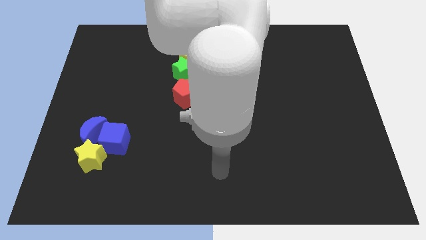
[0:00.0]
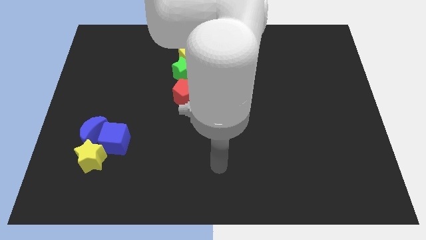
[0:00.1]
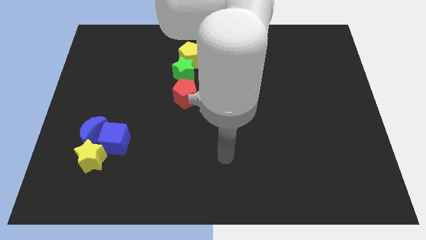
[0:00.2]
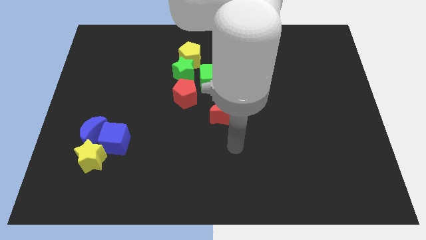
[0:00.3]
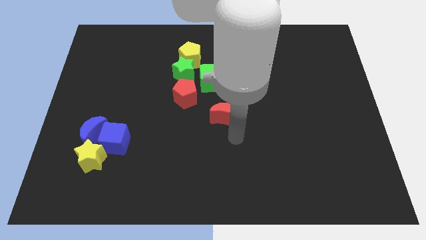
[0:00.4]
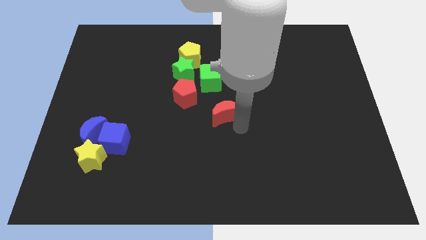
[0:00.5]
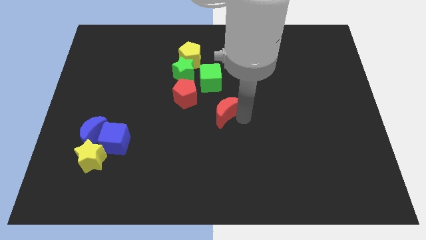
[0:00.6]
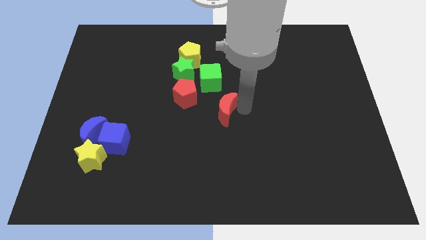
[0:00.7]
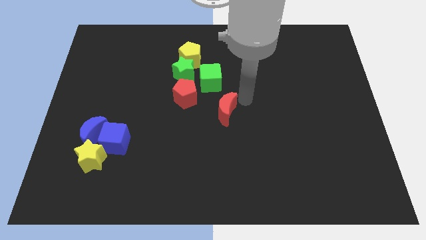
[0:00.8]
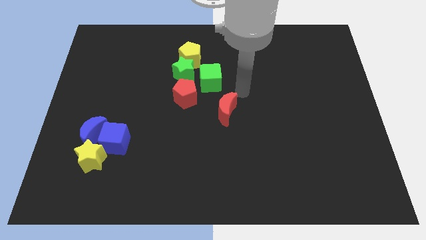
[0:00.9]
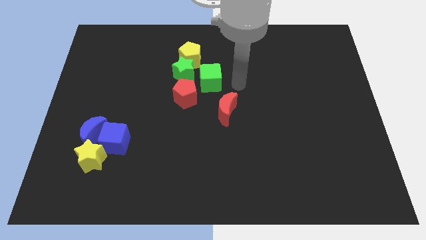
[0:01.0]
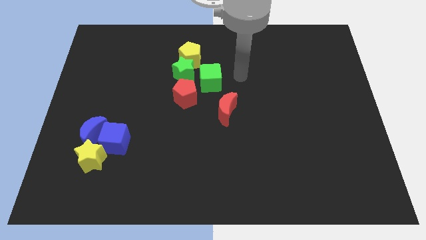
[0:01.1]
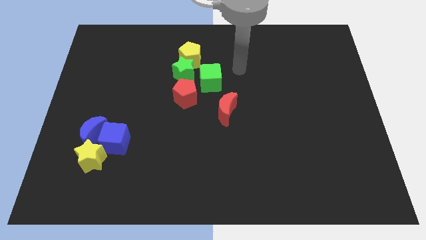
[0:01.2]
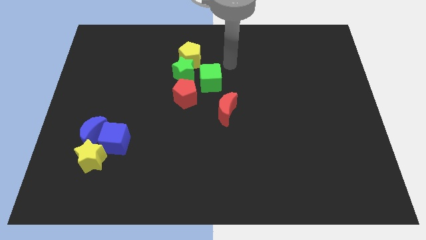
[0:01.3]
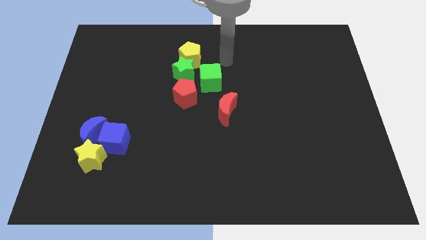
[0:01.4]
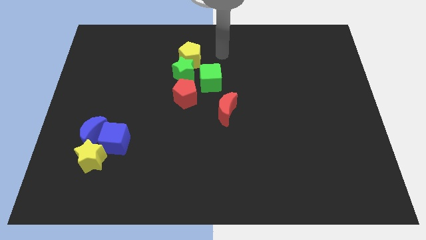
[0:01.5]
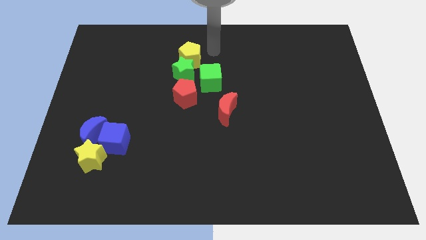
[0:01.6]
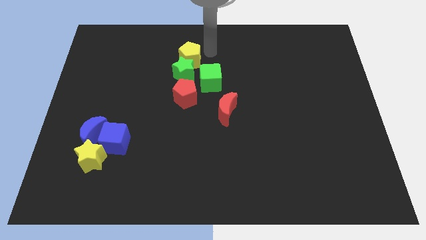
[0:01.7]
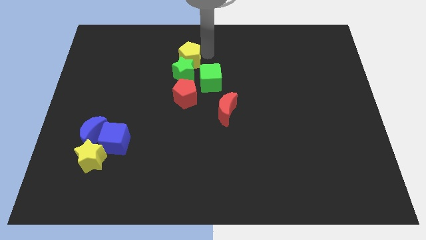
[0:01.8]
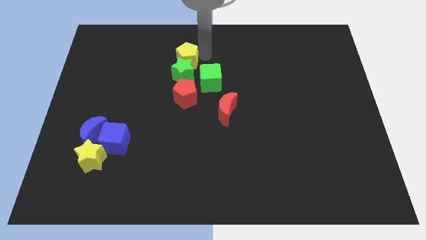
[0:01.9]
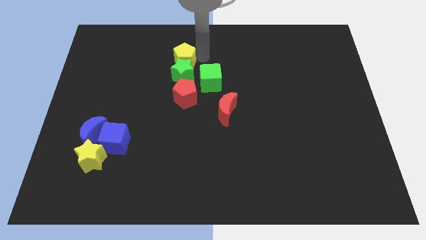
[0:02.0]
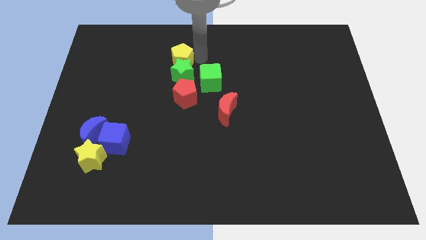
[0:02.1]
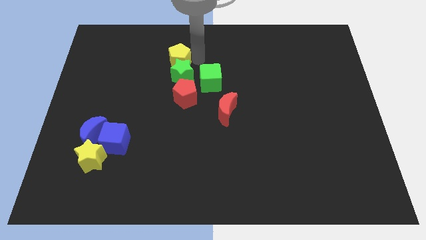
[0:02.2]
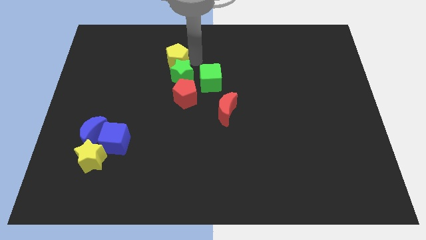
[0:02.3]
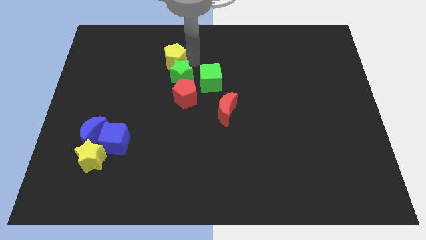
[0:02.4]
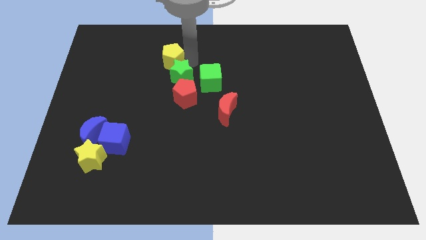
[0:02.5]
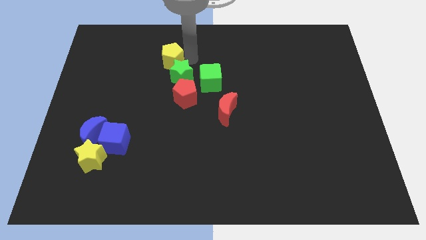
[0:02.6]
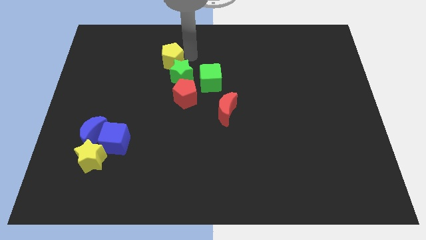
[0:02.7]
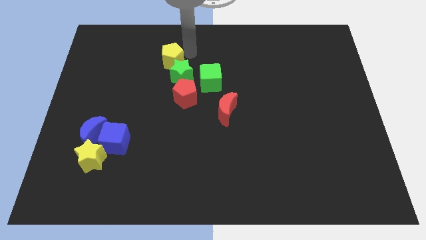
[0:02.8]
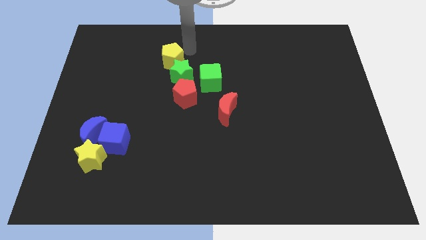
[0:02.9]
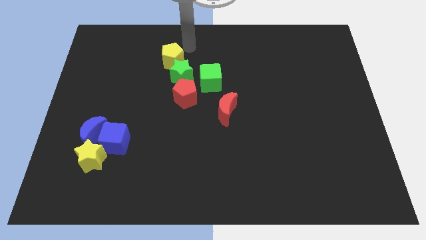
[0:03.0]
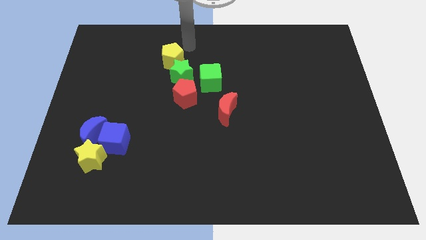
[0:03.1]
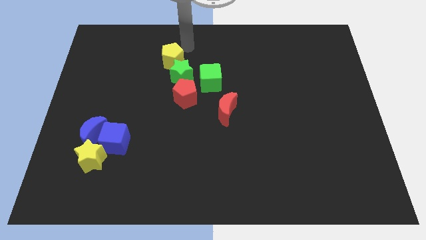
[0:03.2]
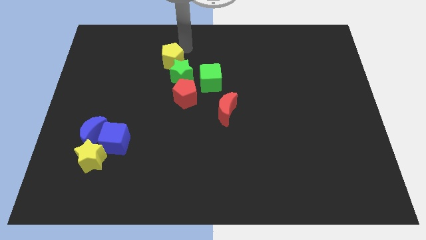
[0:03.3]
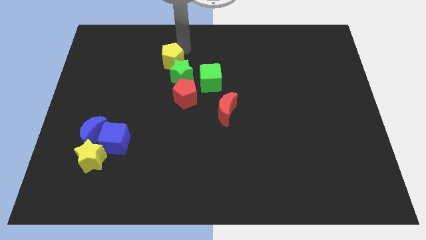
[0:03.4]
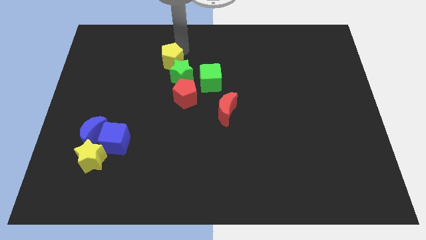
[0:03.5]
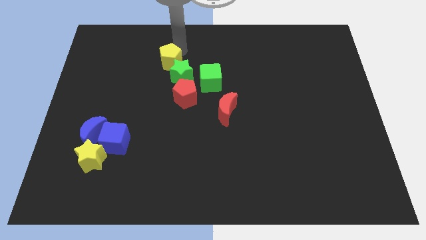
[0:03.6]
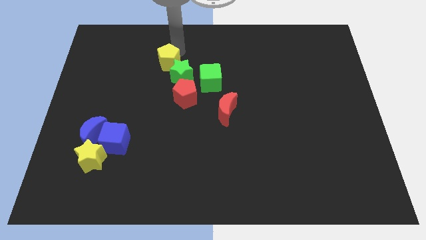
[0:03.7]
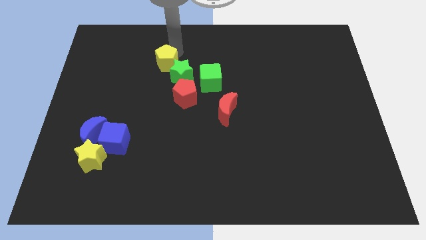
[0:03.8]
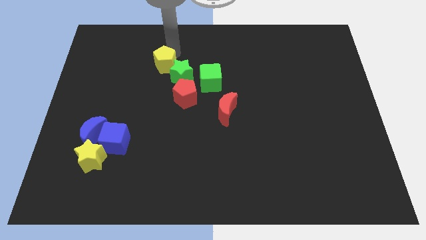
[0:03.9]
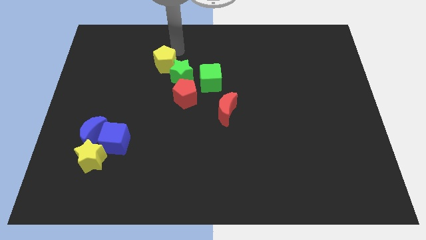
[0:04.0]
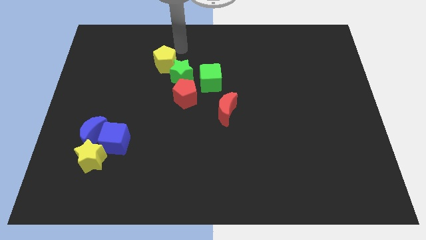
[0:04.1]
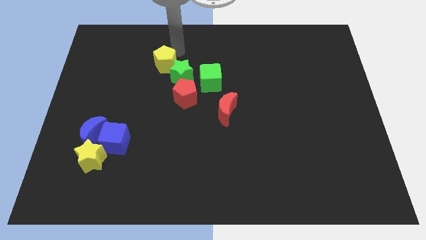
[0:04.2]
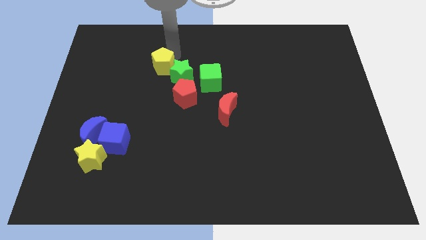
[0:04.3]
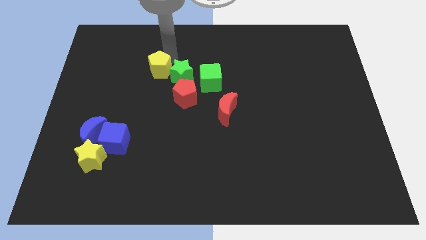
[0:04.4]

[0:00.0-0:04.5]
slightly push the yellow pentagon down and then left

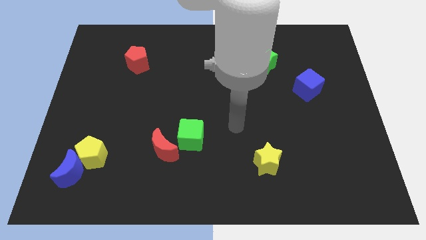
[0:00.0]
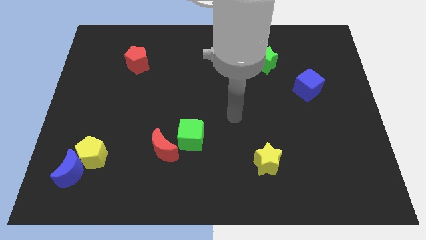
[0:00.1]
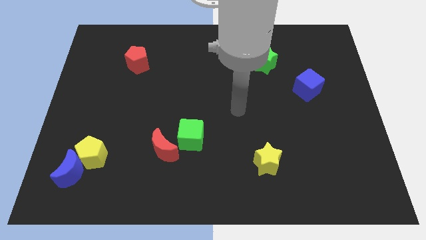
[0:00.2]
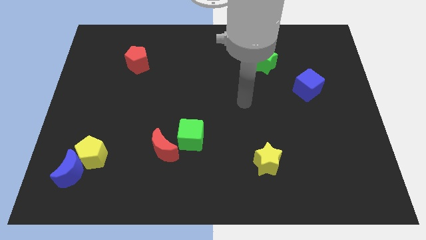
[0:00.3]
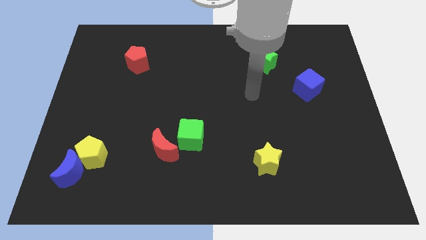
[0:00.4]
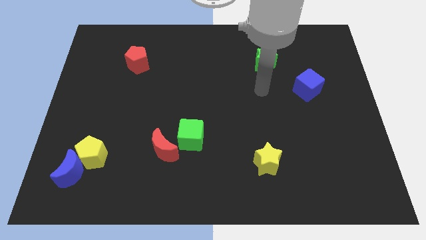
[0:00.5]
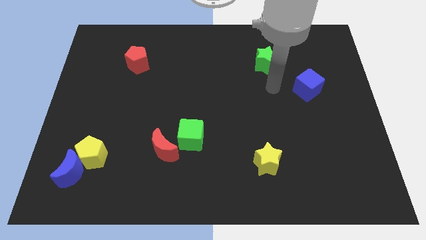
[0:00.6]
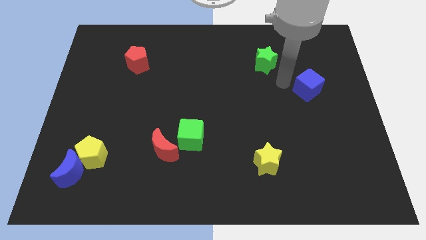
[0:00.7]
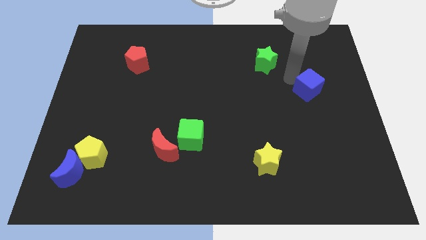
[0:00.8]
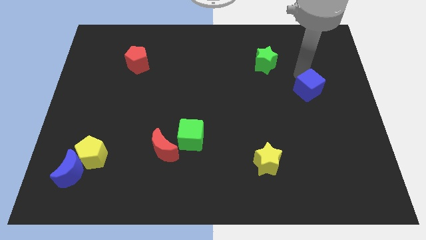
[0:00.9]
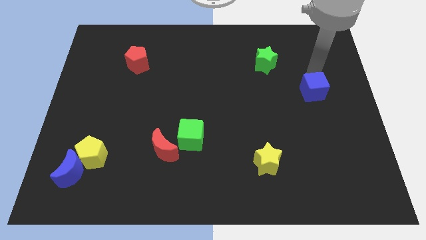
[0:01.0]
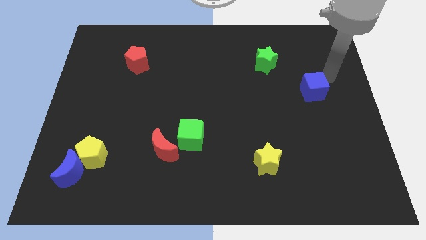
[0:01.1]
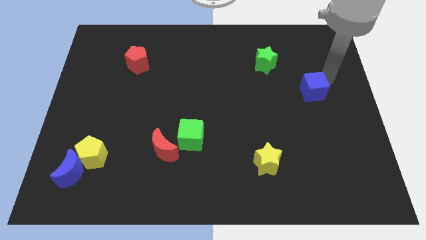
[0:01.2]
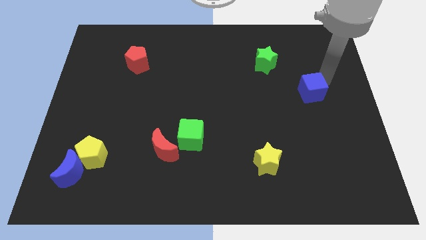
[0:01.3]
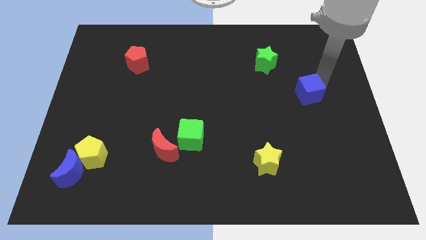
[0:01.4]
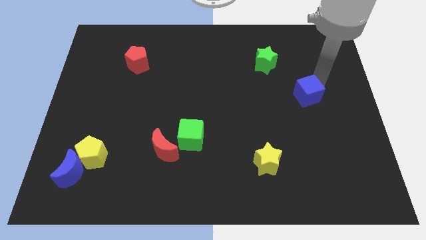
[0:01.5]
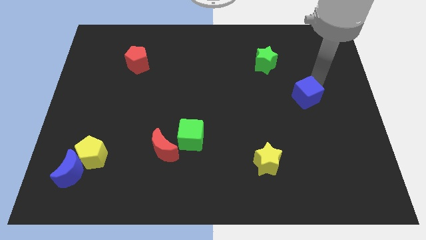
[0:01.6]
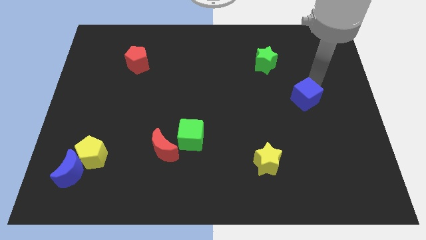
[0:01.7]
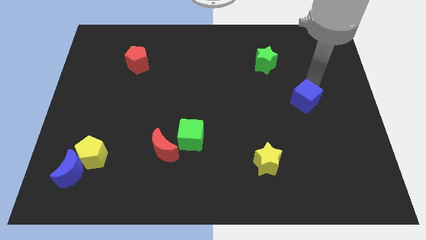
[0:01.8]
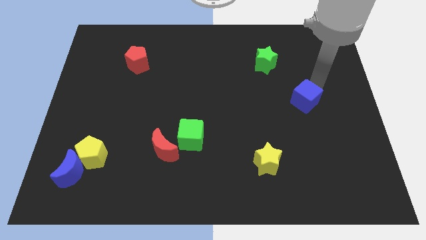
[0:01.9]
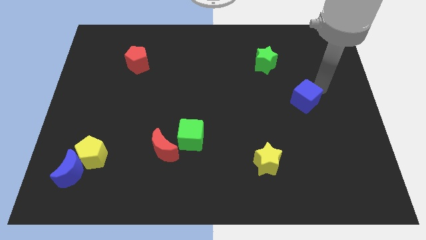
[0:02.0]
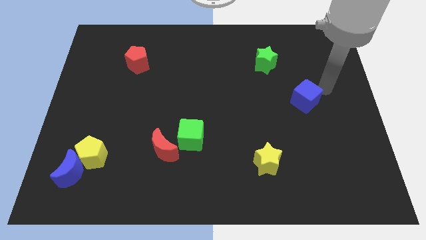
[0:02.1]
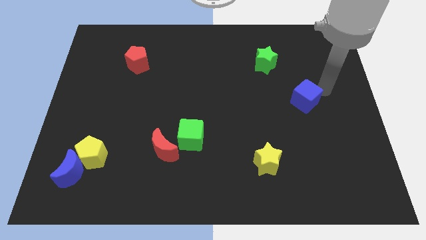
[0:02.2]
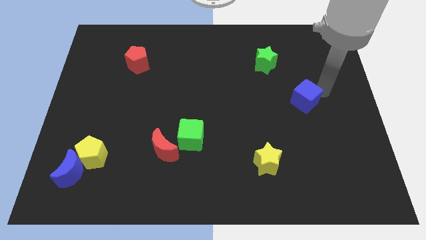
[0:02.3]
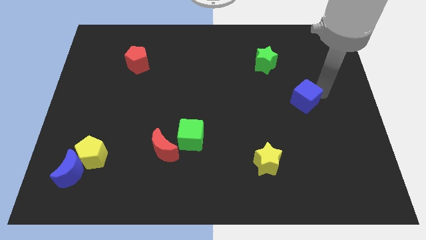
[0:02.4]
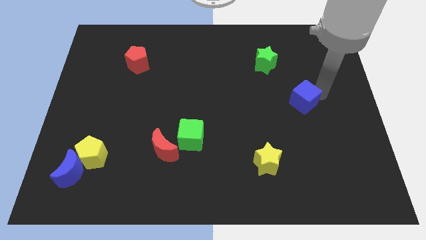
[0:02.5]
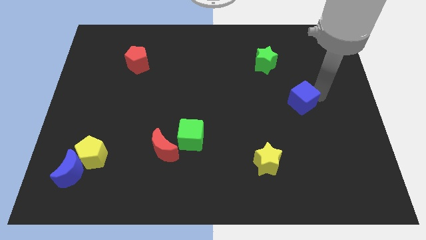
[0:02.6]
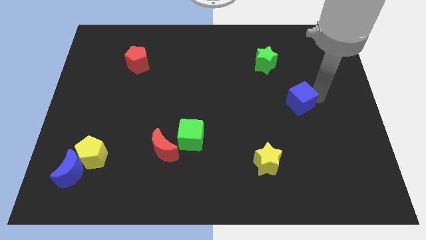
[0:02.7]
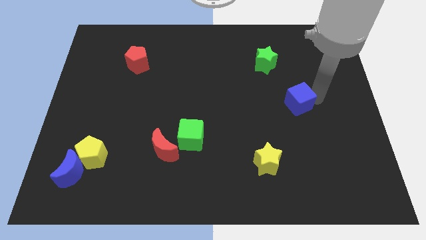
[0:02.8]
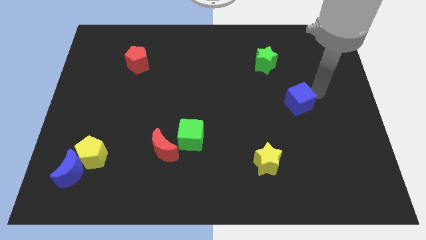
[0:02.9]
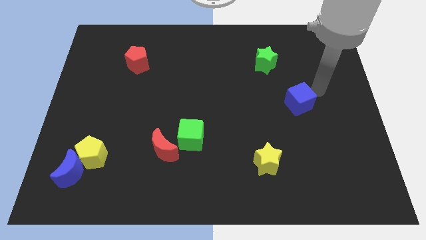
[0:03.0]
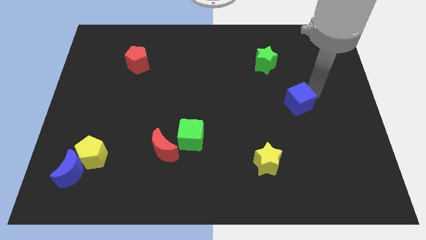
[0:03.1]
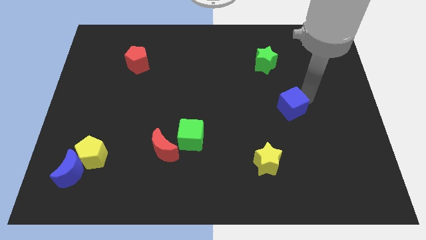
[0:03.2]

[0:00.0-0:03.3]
slide the blue cube downwards and then left a little bit

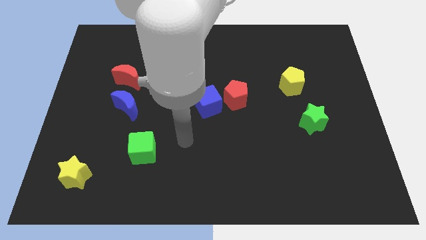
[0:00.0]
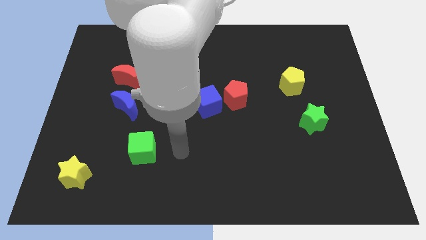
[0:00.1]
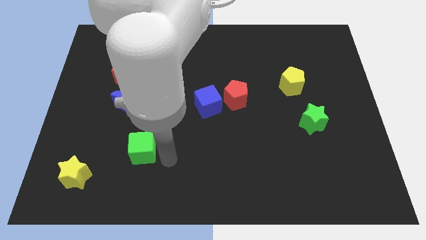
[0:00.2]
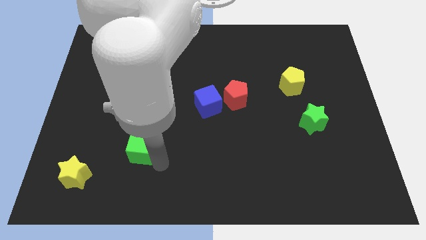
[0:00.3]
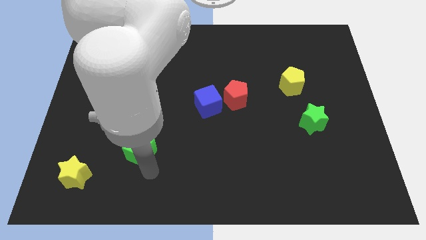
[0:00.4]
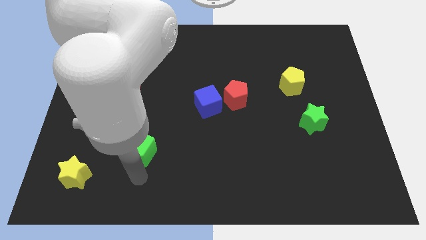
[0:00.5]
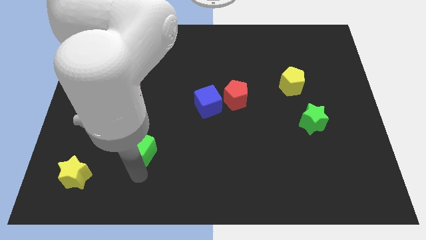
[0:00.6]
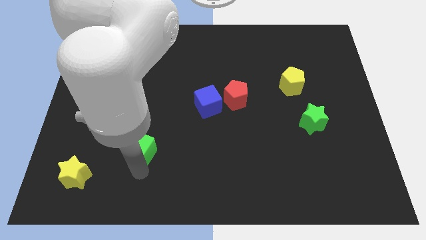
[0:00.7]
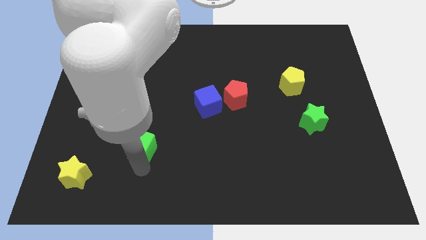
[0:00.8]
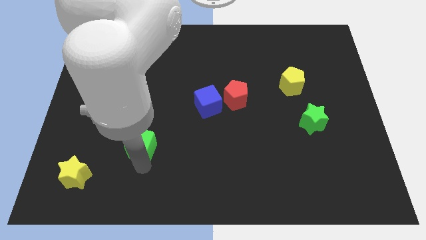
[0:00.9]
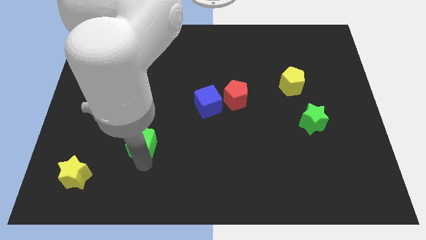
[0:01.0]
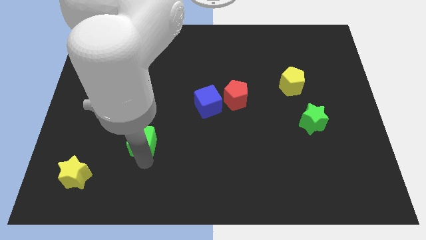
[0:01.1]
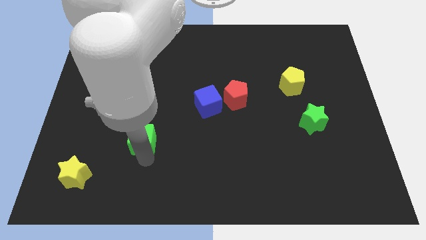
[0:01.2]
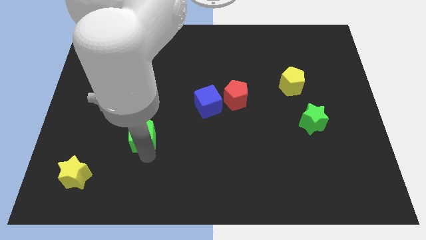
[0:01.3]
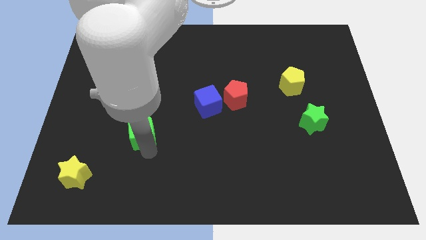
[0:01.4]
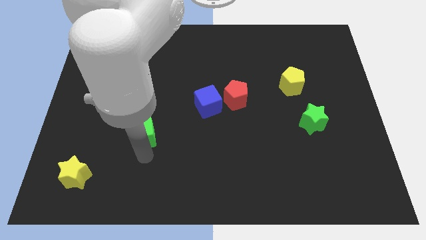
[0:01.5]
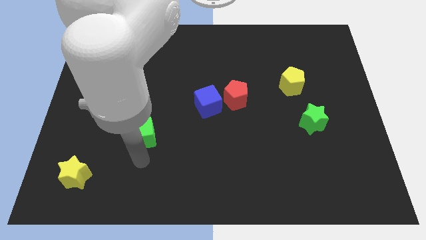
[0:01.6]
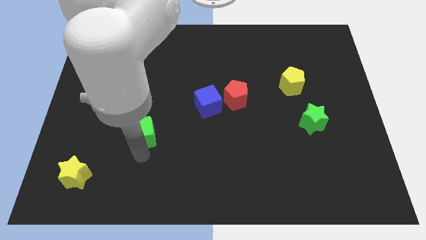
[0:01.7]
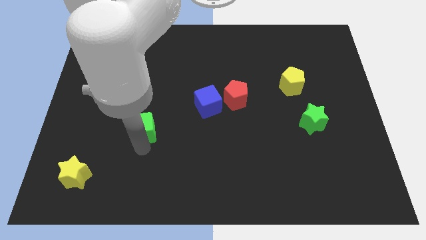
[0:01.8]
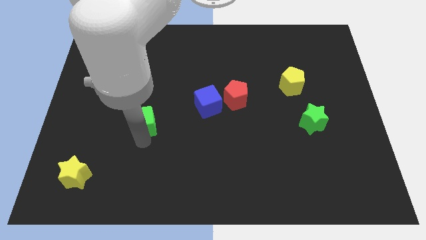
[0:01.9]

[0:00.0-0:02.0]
push the green cube a little bit upwards
